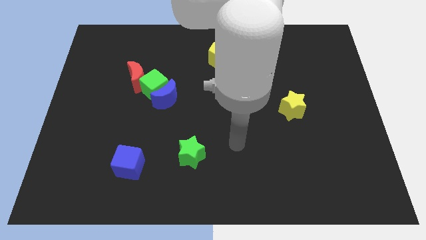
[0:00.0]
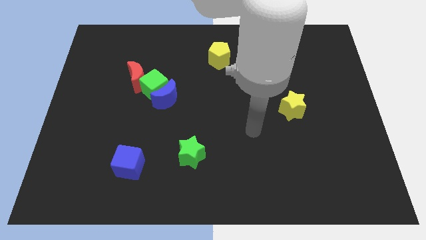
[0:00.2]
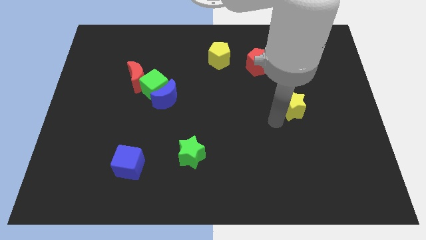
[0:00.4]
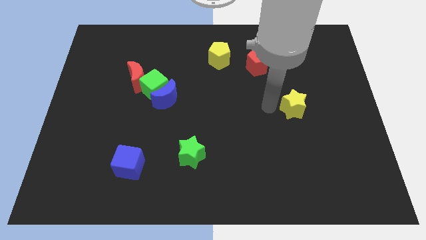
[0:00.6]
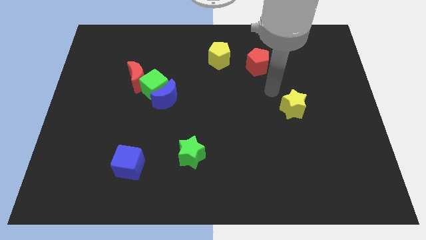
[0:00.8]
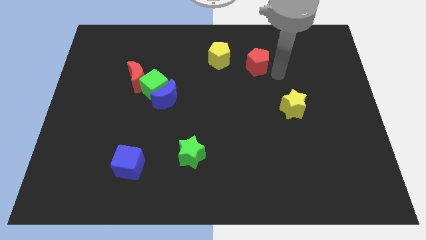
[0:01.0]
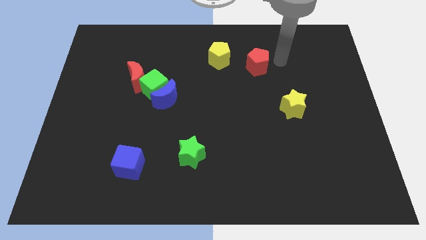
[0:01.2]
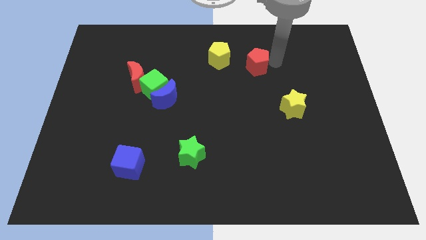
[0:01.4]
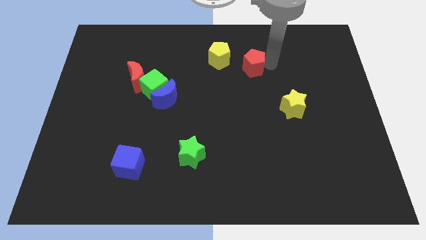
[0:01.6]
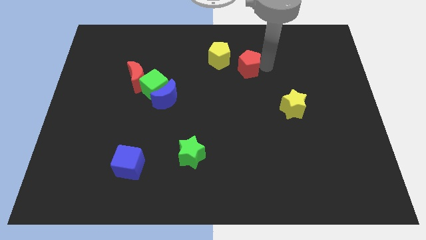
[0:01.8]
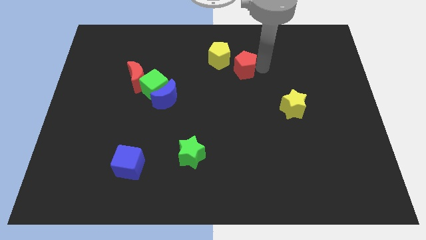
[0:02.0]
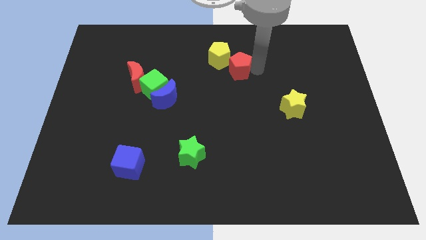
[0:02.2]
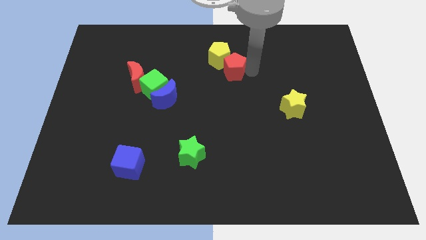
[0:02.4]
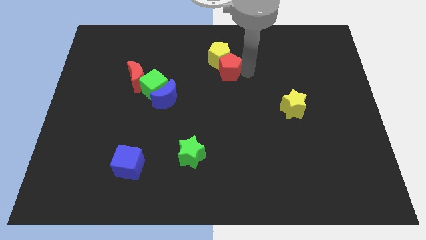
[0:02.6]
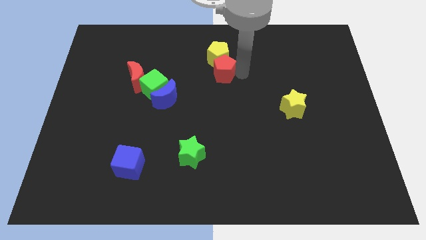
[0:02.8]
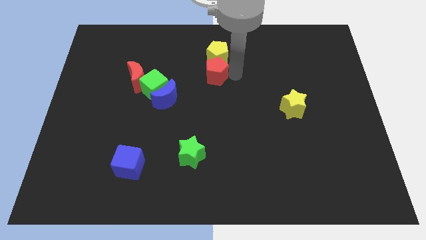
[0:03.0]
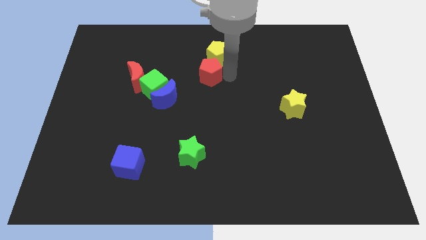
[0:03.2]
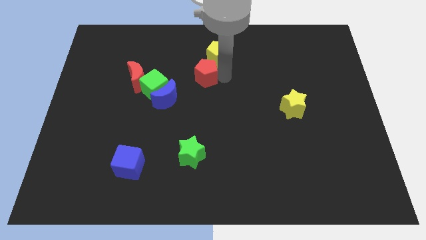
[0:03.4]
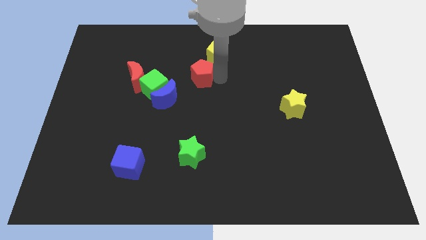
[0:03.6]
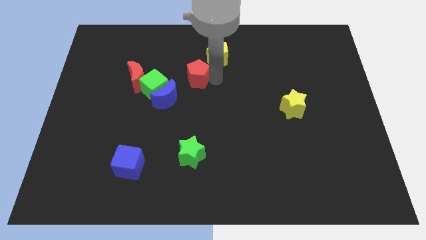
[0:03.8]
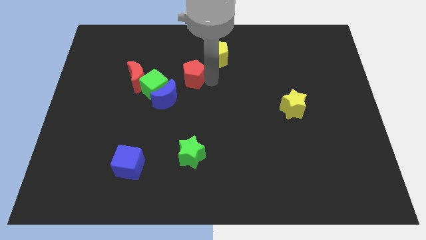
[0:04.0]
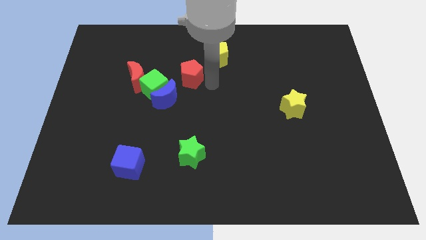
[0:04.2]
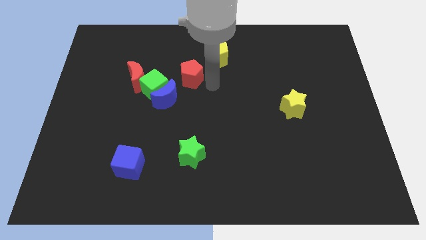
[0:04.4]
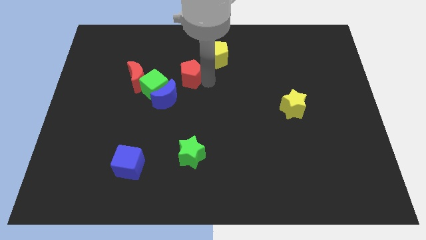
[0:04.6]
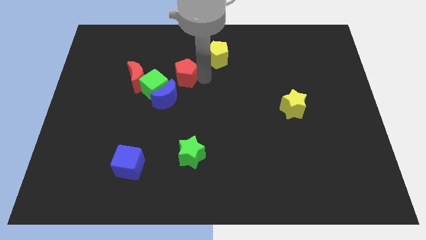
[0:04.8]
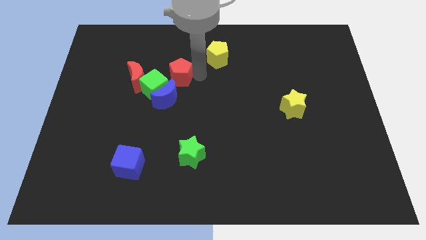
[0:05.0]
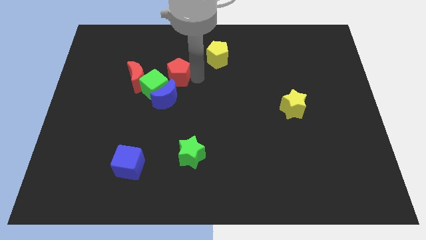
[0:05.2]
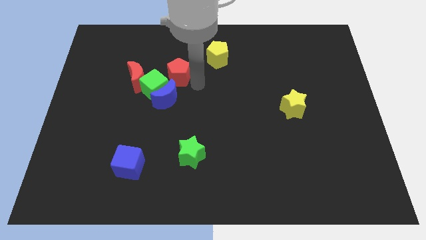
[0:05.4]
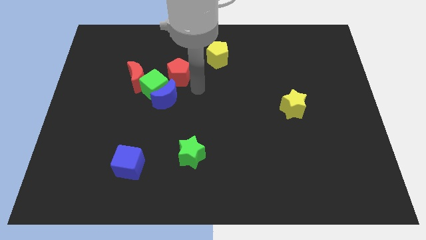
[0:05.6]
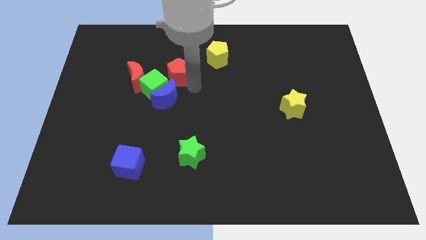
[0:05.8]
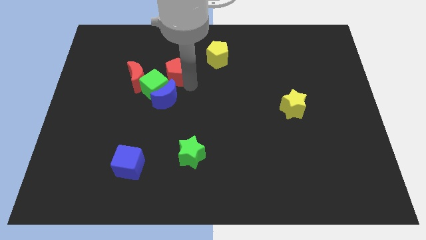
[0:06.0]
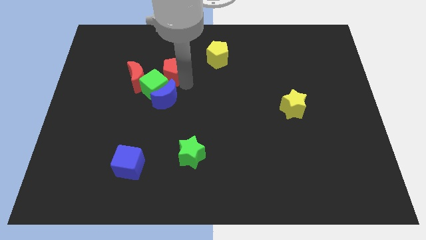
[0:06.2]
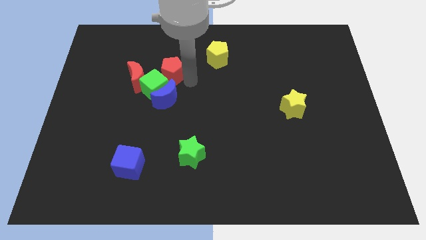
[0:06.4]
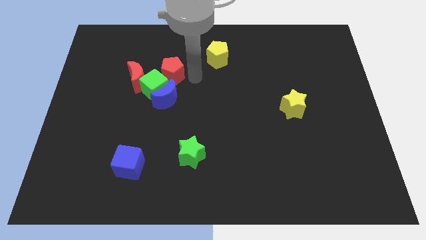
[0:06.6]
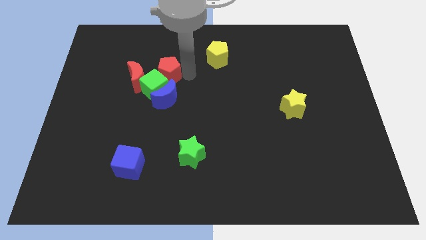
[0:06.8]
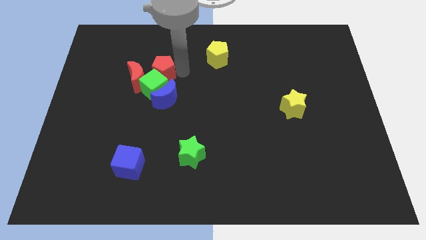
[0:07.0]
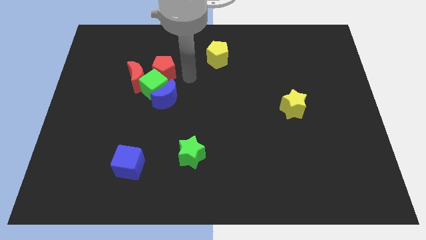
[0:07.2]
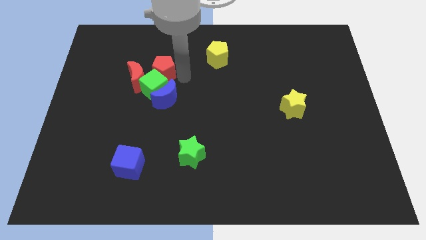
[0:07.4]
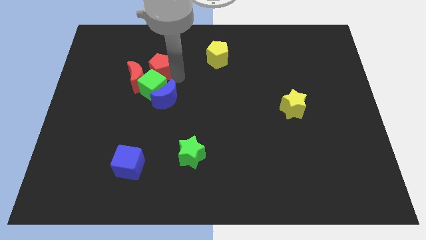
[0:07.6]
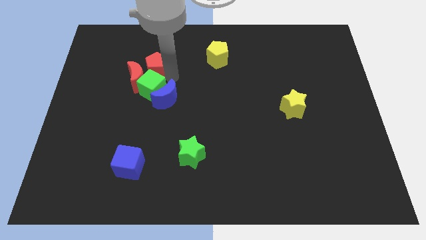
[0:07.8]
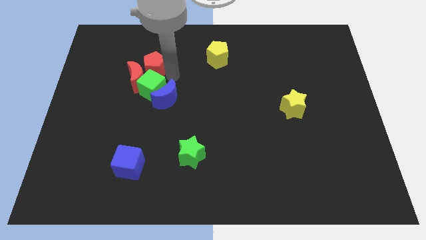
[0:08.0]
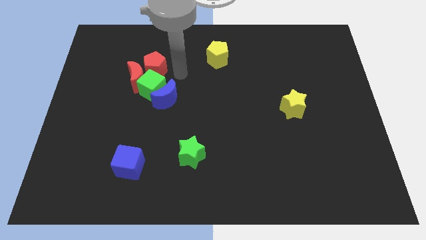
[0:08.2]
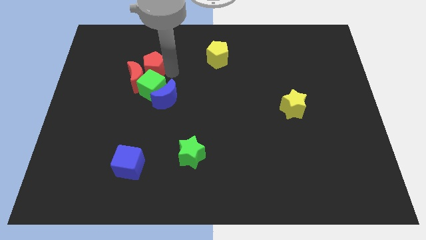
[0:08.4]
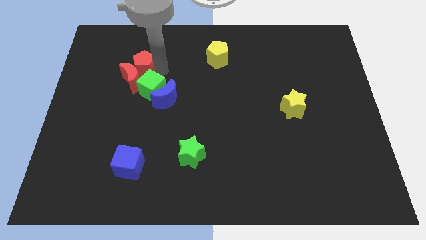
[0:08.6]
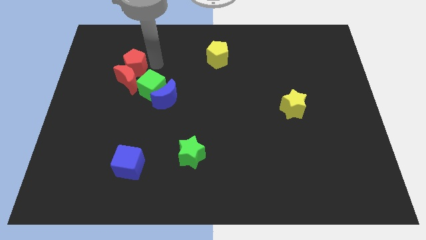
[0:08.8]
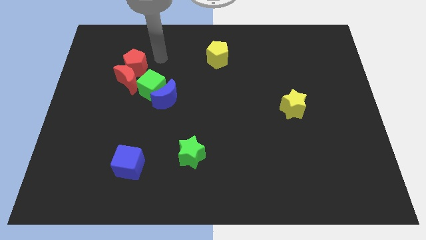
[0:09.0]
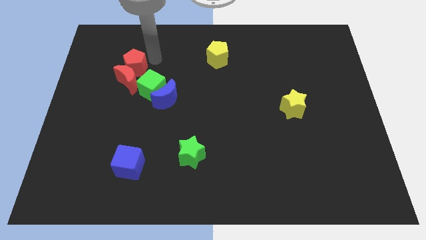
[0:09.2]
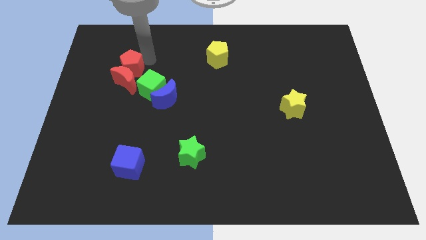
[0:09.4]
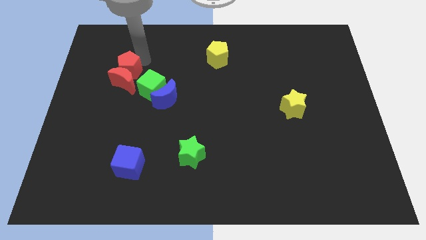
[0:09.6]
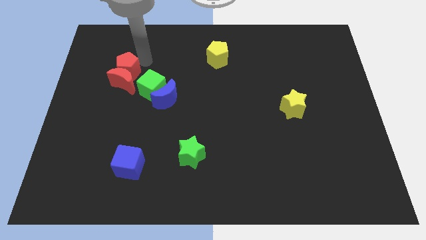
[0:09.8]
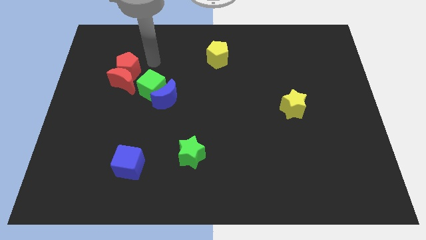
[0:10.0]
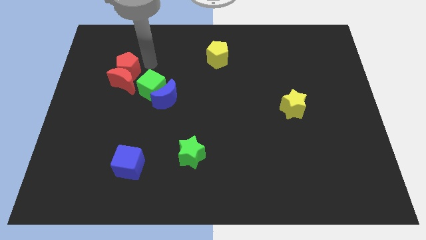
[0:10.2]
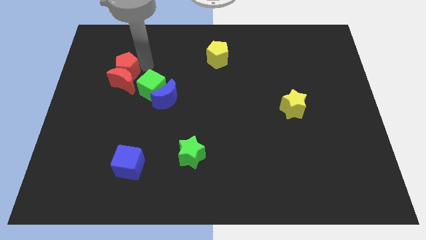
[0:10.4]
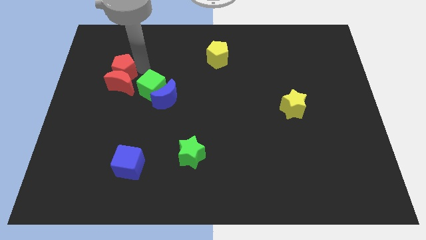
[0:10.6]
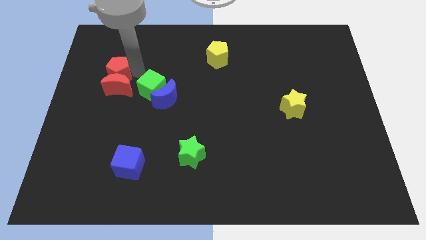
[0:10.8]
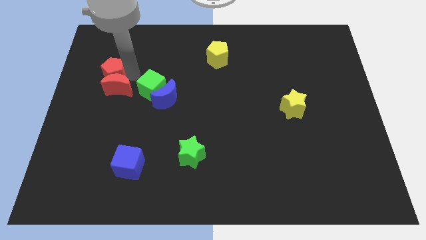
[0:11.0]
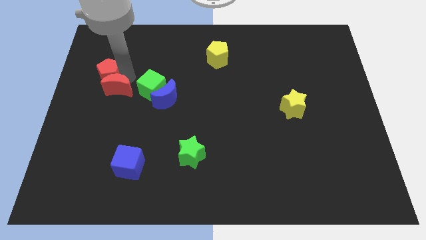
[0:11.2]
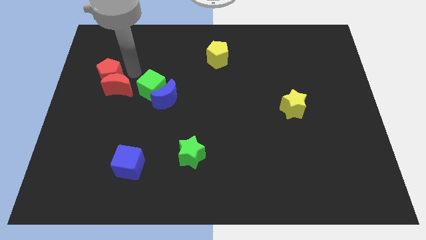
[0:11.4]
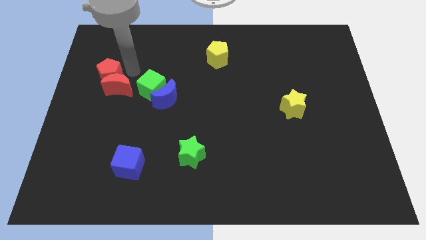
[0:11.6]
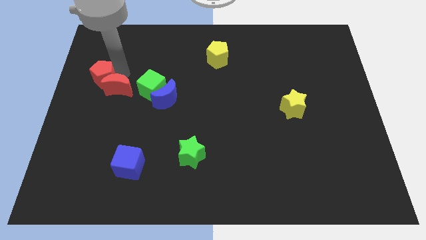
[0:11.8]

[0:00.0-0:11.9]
slide the red pentagon to the left side

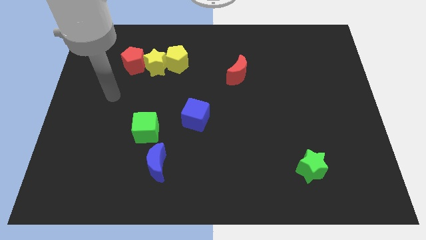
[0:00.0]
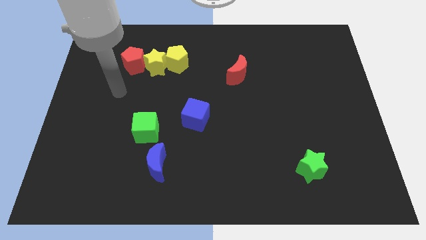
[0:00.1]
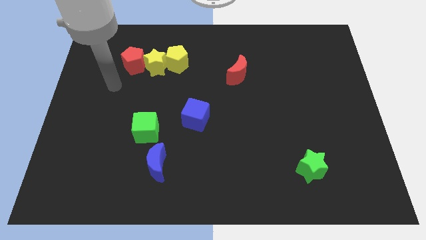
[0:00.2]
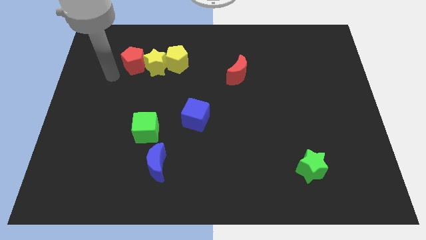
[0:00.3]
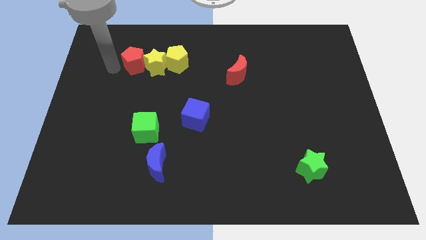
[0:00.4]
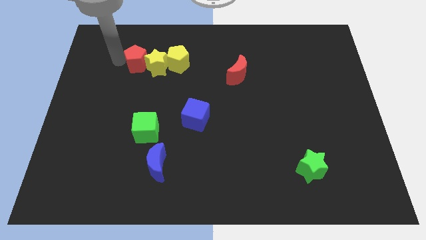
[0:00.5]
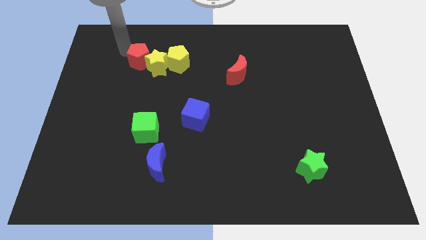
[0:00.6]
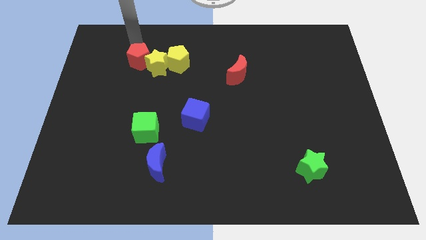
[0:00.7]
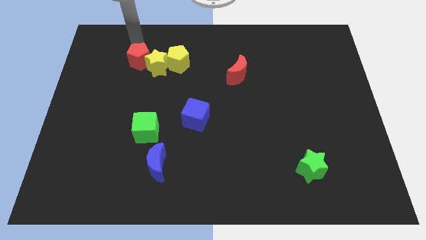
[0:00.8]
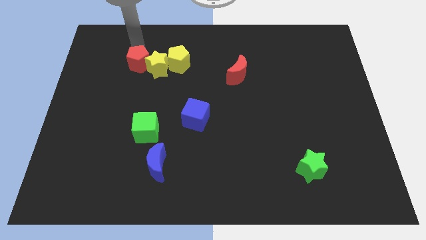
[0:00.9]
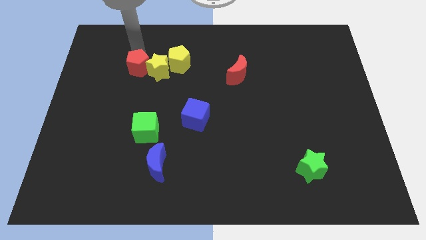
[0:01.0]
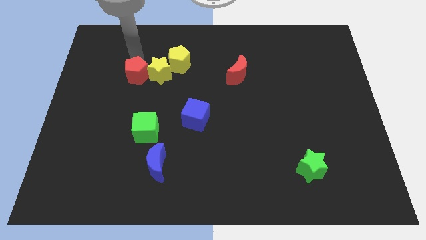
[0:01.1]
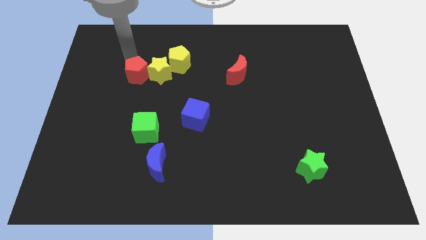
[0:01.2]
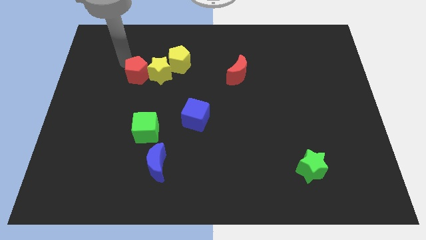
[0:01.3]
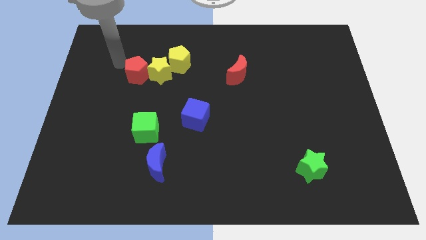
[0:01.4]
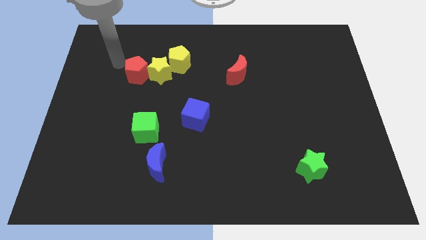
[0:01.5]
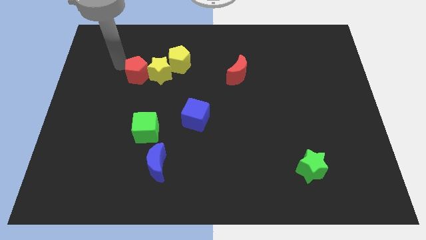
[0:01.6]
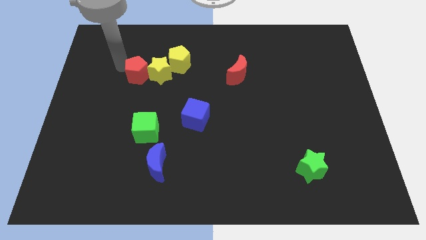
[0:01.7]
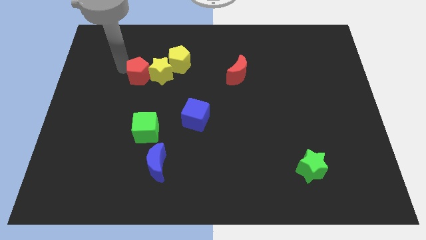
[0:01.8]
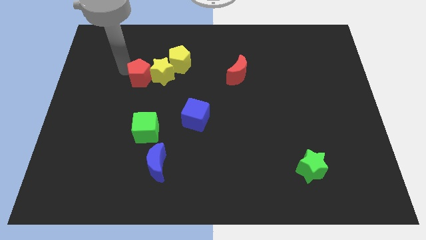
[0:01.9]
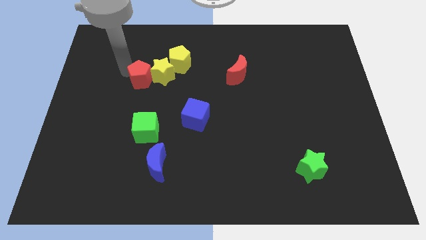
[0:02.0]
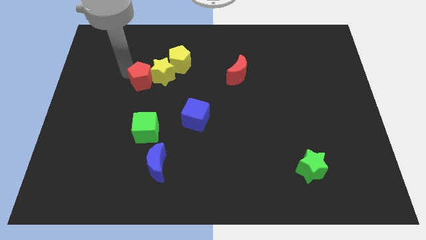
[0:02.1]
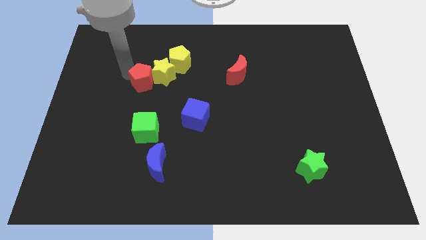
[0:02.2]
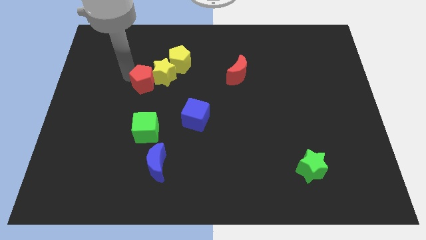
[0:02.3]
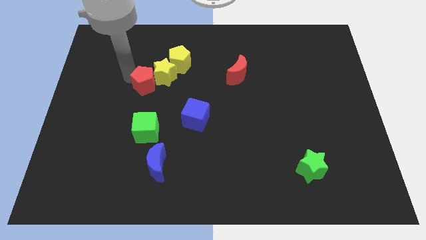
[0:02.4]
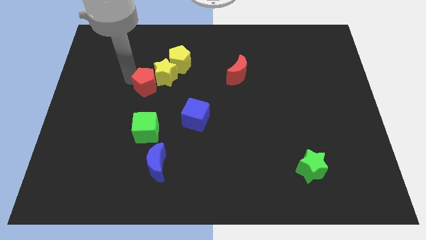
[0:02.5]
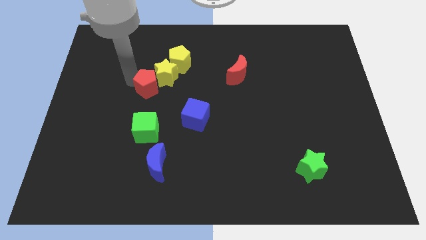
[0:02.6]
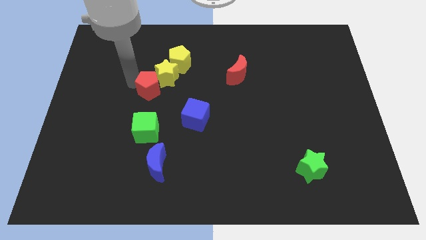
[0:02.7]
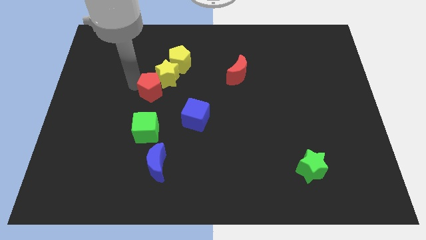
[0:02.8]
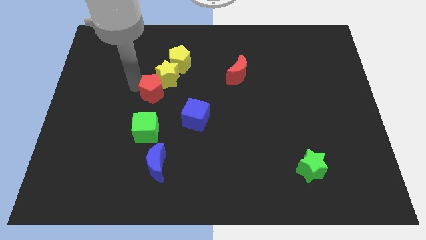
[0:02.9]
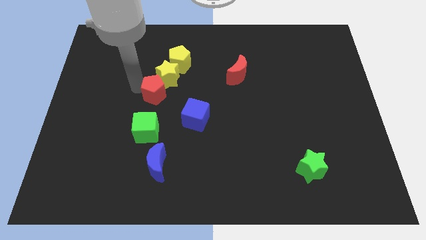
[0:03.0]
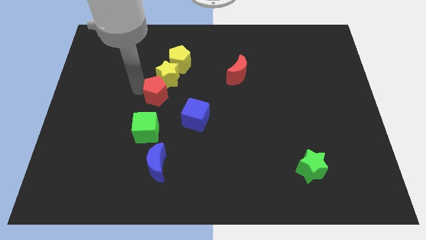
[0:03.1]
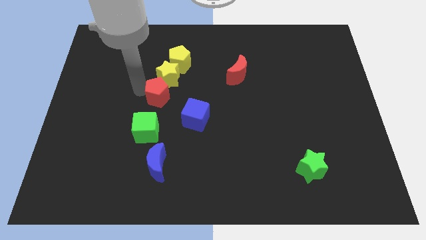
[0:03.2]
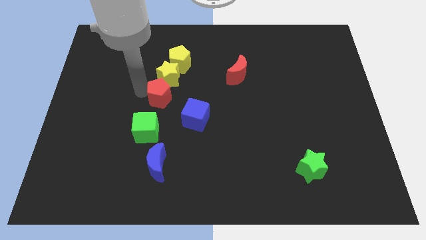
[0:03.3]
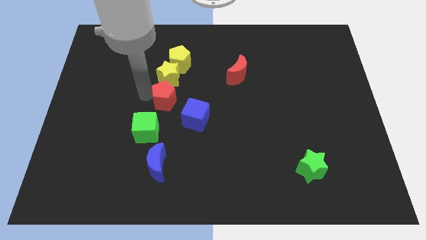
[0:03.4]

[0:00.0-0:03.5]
put the red pentagon to the middle
